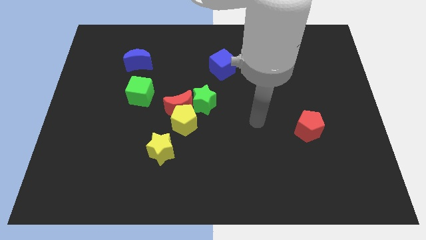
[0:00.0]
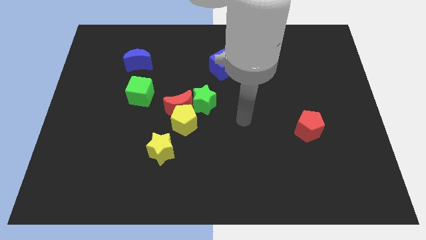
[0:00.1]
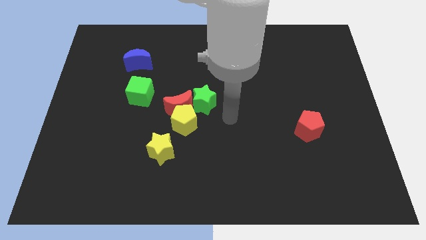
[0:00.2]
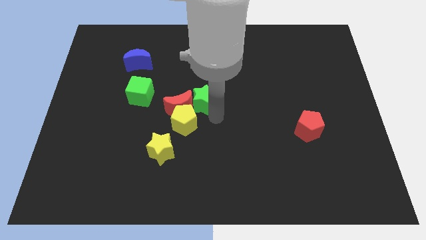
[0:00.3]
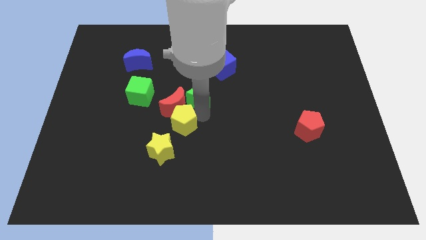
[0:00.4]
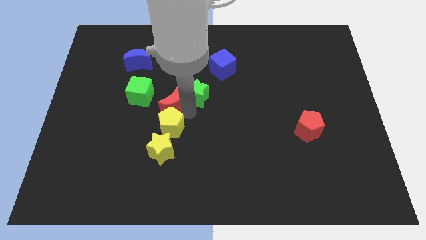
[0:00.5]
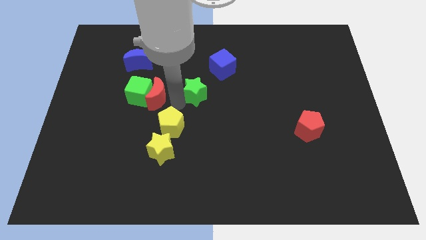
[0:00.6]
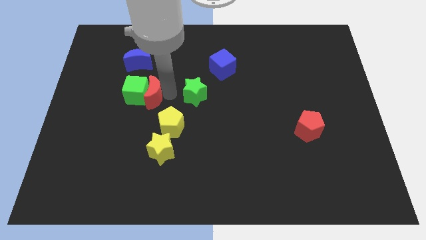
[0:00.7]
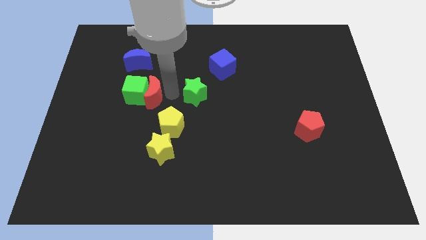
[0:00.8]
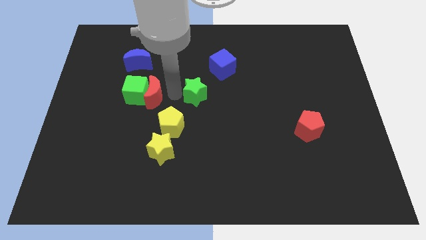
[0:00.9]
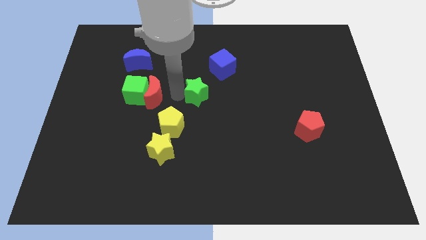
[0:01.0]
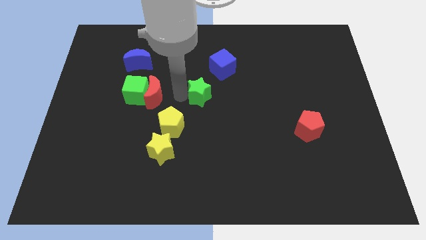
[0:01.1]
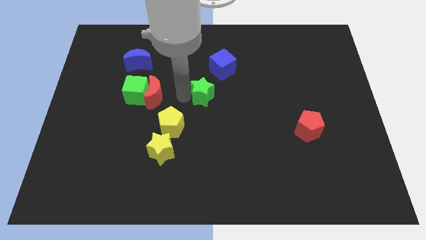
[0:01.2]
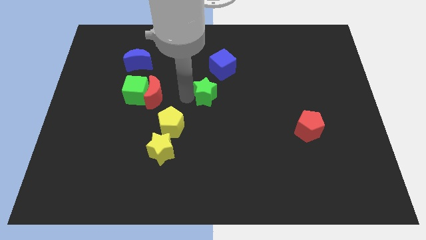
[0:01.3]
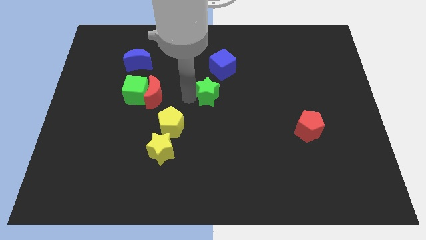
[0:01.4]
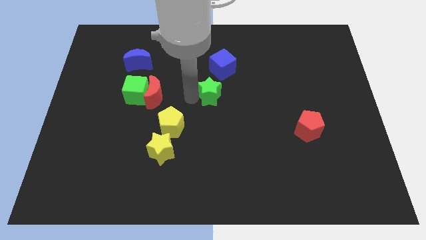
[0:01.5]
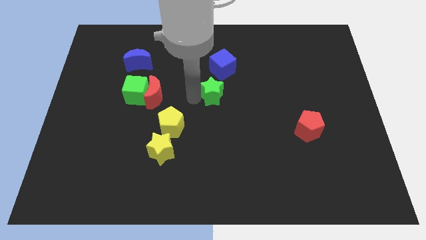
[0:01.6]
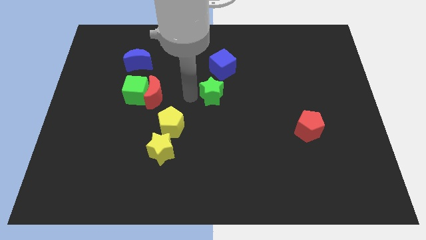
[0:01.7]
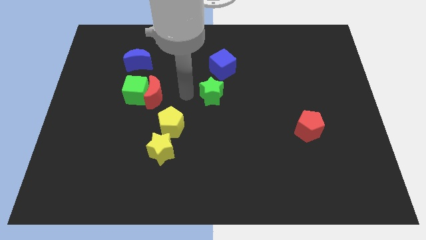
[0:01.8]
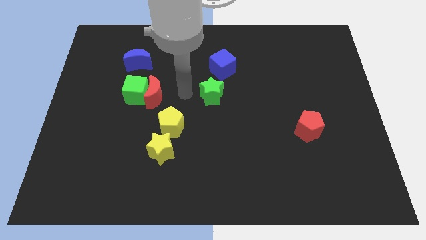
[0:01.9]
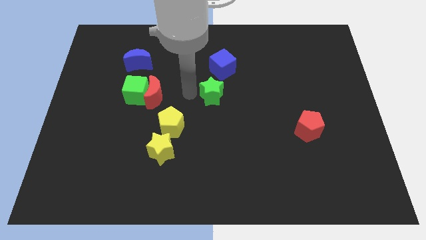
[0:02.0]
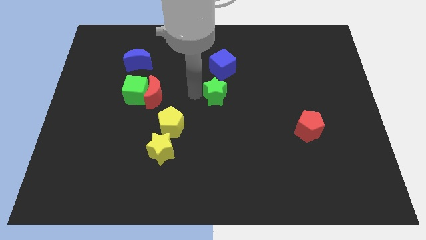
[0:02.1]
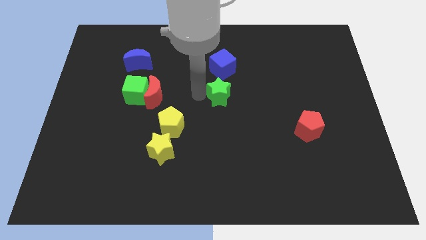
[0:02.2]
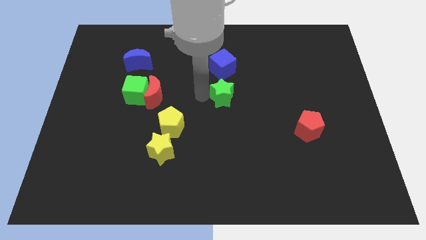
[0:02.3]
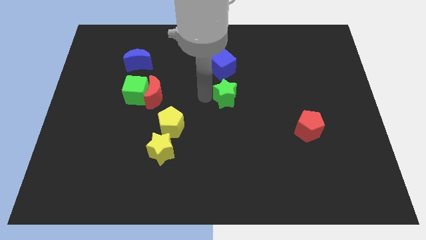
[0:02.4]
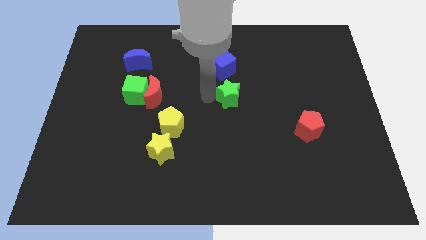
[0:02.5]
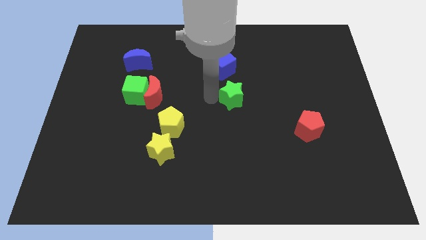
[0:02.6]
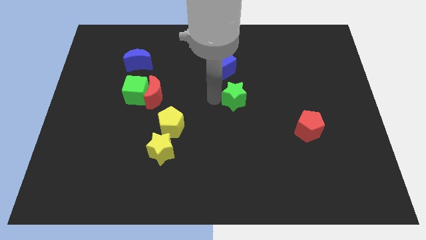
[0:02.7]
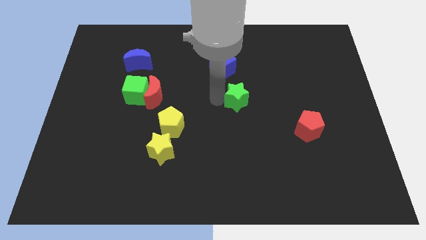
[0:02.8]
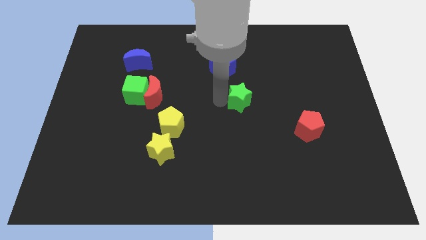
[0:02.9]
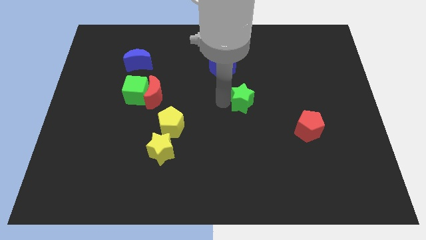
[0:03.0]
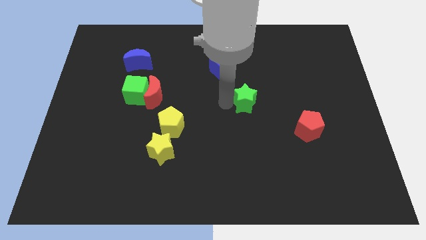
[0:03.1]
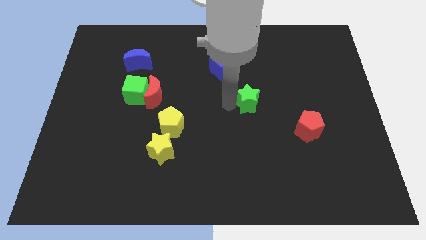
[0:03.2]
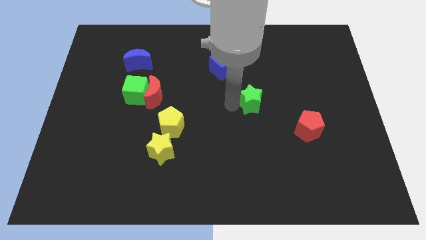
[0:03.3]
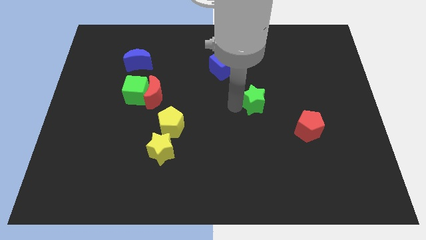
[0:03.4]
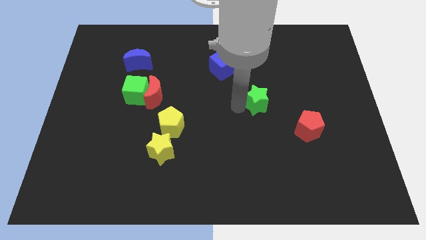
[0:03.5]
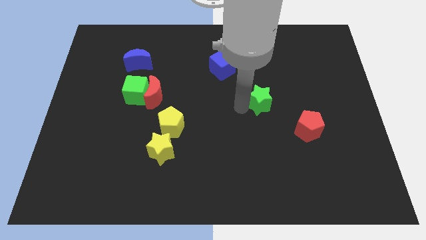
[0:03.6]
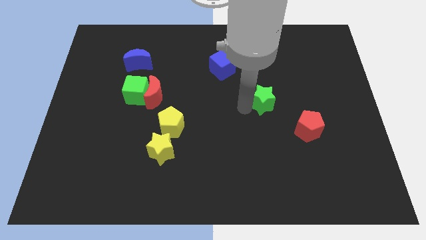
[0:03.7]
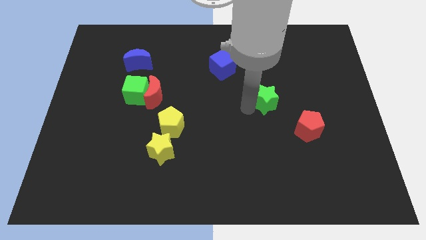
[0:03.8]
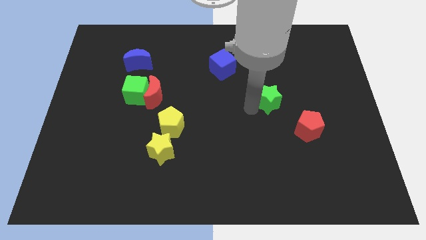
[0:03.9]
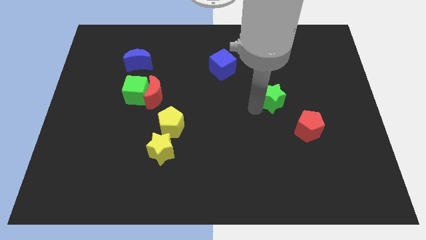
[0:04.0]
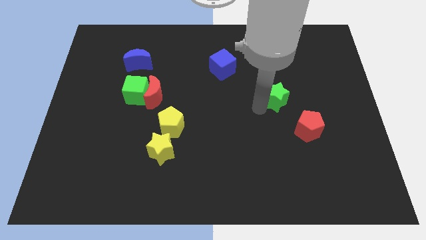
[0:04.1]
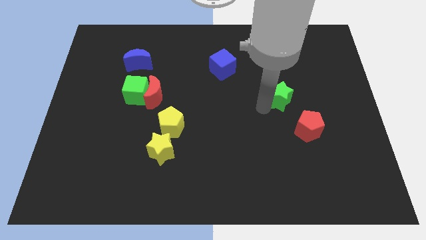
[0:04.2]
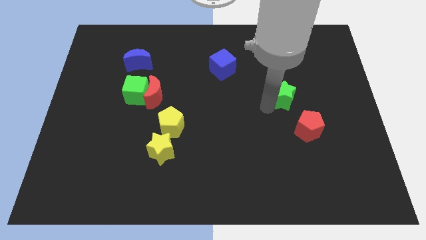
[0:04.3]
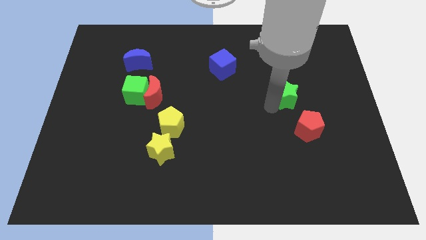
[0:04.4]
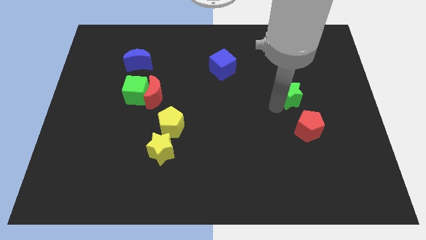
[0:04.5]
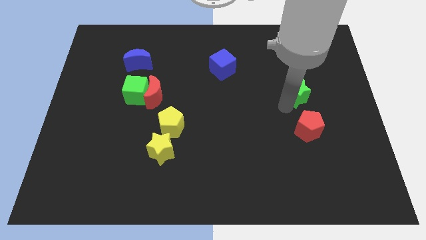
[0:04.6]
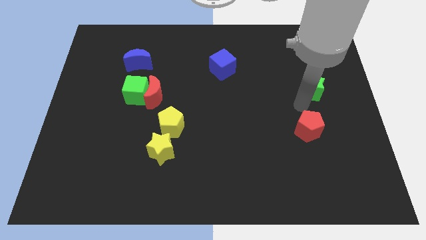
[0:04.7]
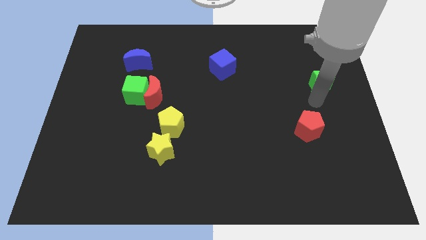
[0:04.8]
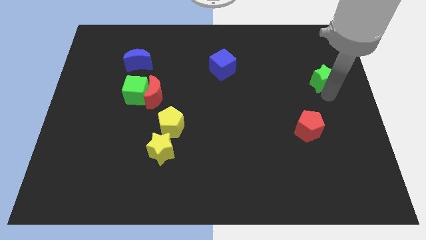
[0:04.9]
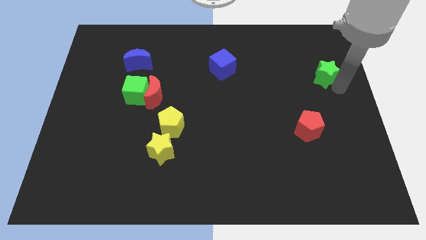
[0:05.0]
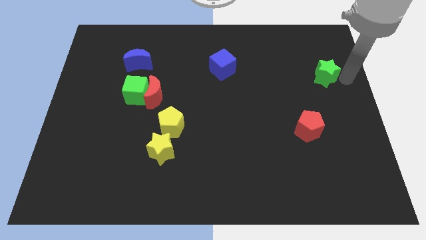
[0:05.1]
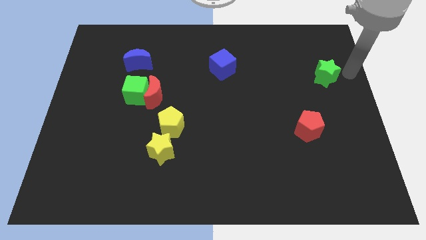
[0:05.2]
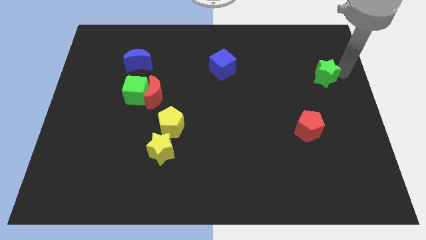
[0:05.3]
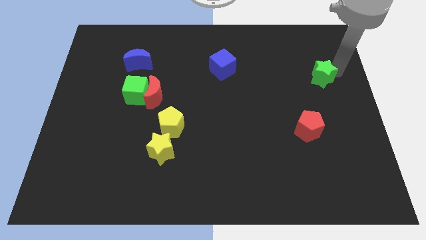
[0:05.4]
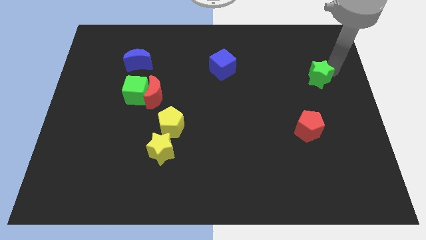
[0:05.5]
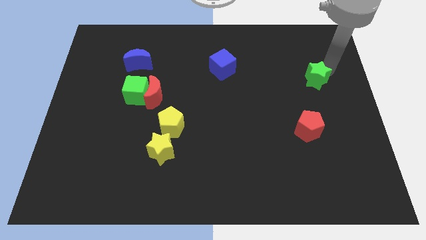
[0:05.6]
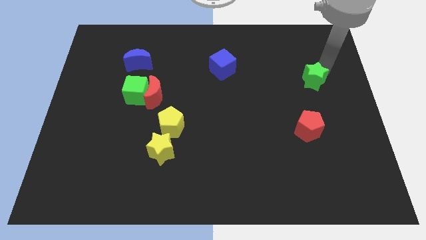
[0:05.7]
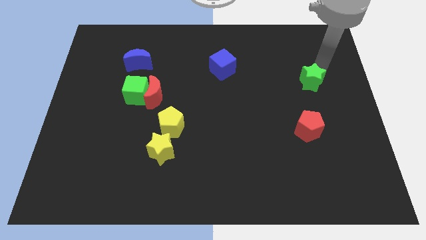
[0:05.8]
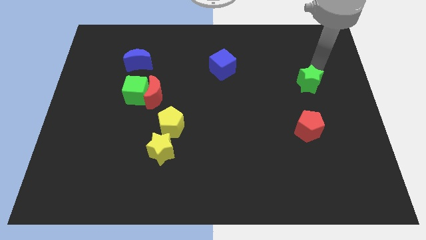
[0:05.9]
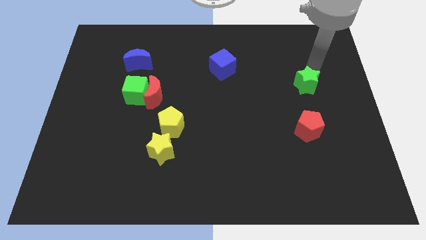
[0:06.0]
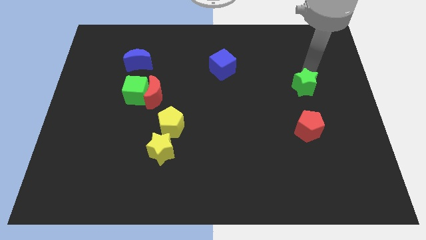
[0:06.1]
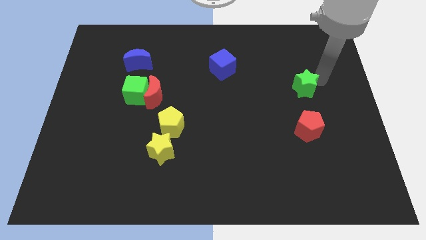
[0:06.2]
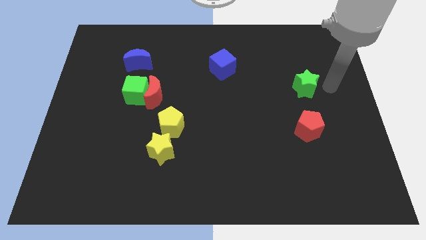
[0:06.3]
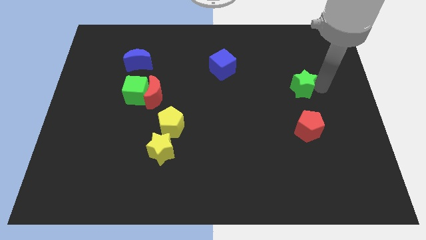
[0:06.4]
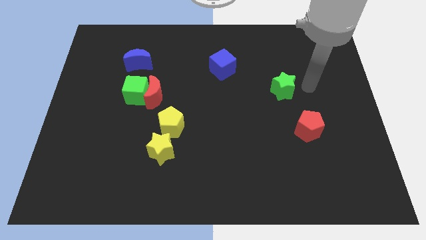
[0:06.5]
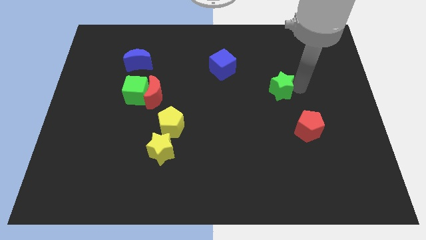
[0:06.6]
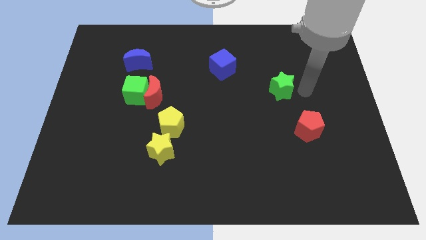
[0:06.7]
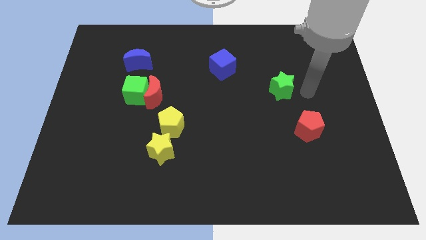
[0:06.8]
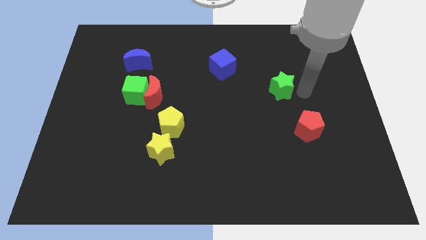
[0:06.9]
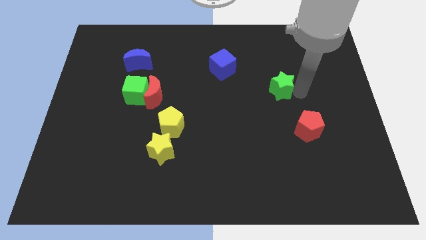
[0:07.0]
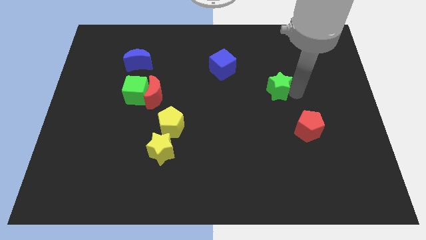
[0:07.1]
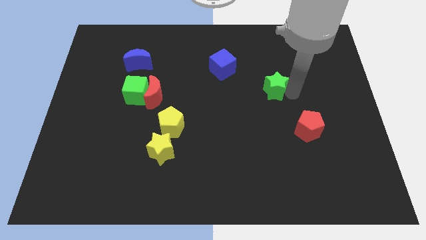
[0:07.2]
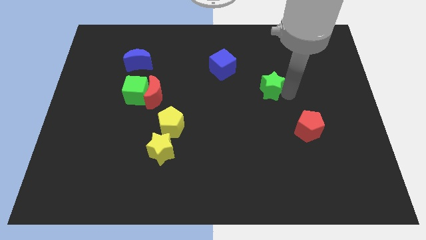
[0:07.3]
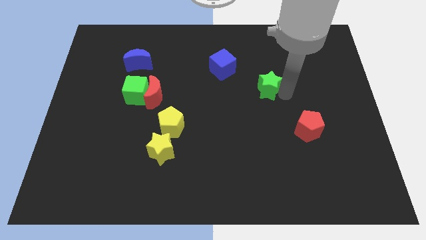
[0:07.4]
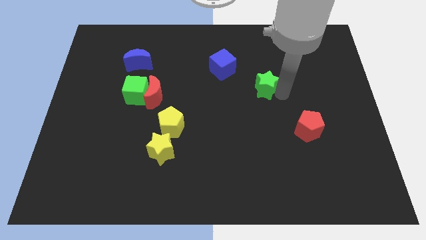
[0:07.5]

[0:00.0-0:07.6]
move the green star diagonally down and to the right of the blue cube

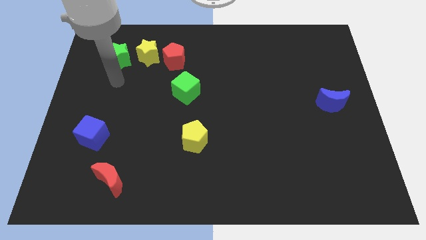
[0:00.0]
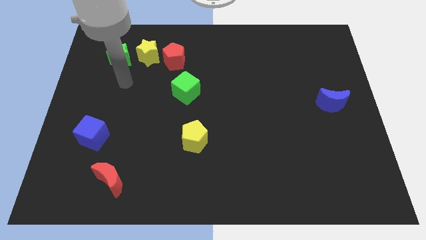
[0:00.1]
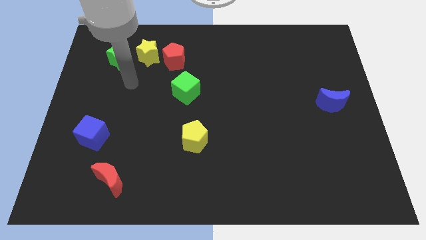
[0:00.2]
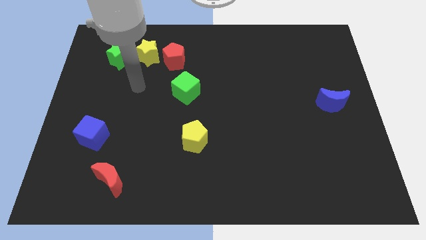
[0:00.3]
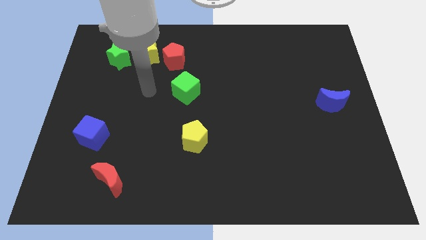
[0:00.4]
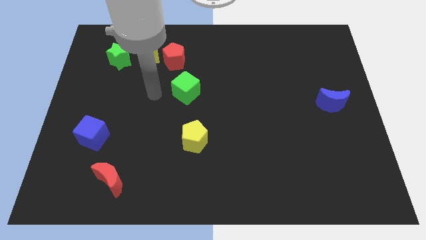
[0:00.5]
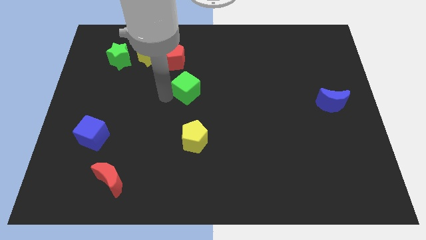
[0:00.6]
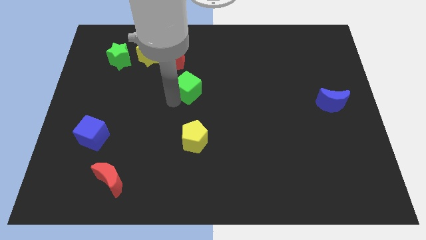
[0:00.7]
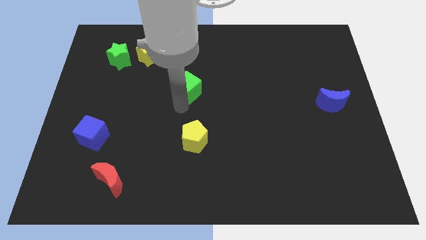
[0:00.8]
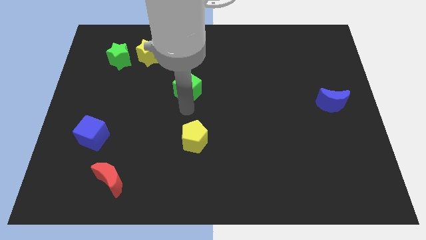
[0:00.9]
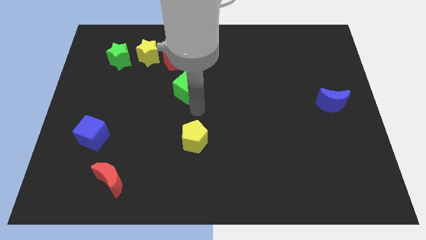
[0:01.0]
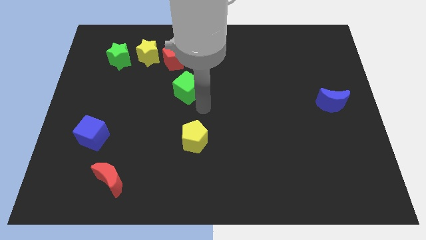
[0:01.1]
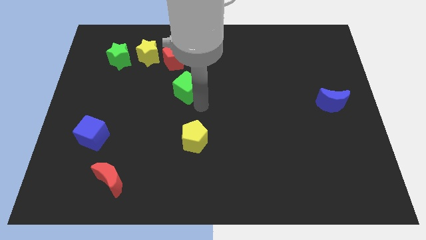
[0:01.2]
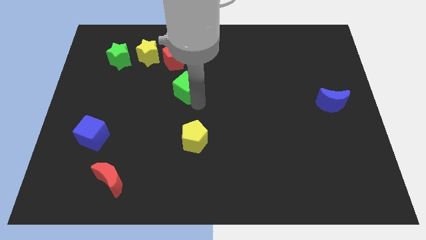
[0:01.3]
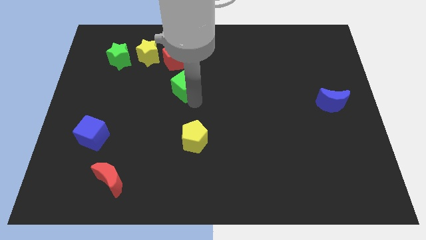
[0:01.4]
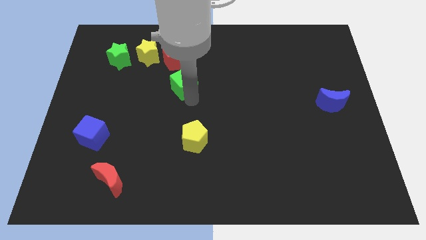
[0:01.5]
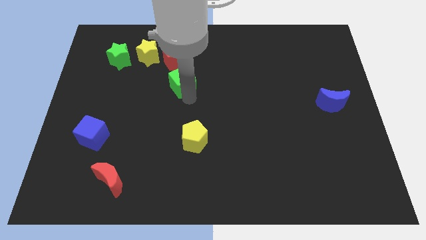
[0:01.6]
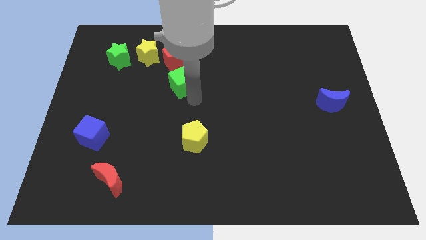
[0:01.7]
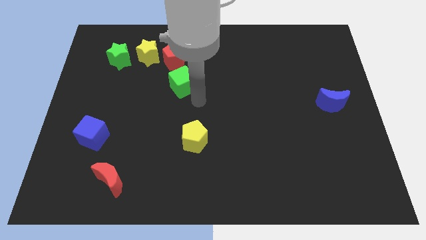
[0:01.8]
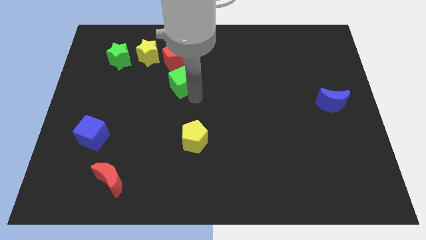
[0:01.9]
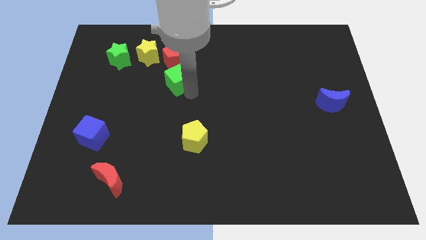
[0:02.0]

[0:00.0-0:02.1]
slide the green cube to the bottom right side of the yellow star
